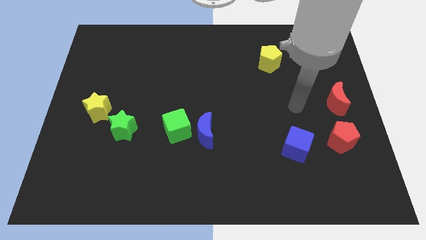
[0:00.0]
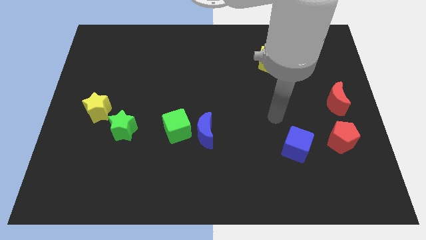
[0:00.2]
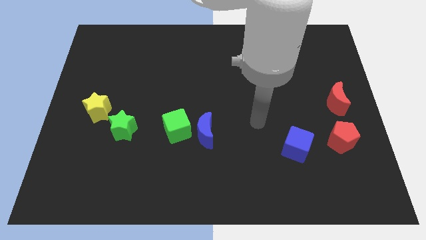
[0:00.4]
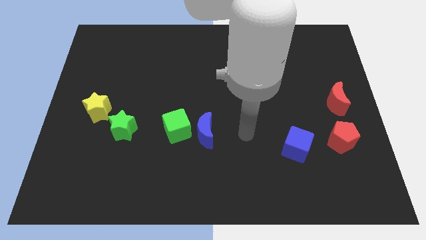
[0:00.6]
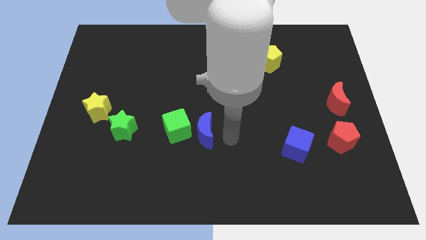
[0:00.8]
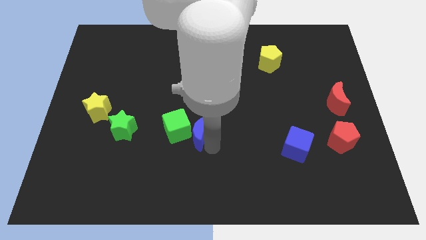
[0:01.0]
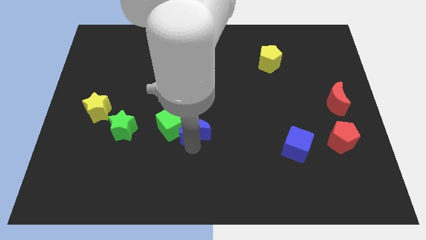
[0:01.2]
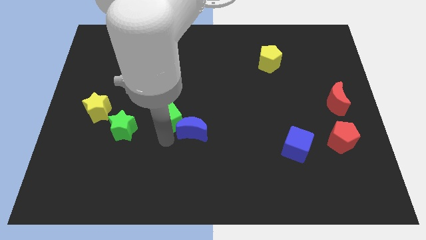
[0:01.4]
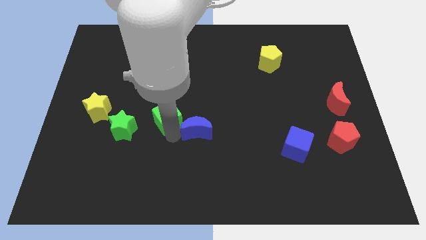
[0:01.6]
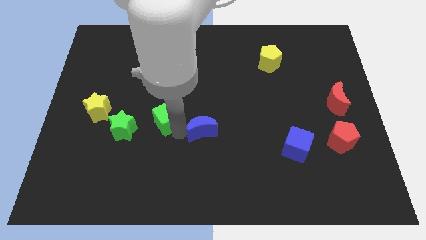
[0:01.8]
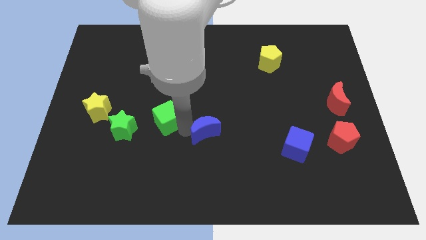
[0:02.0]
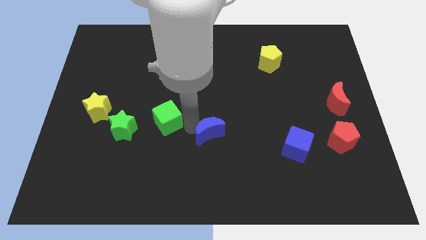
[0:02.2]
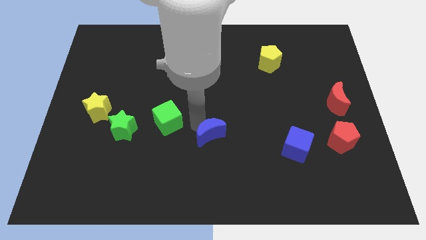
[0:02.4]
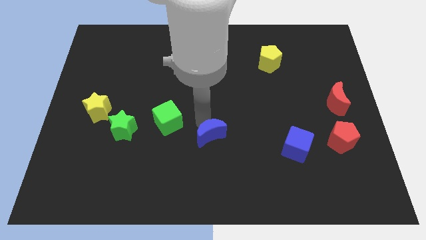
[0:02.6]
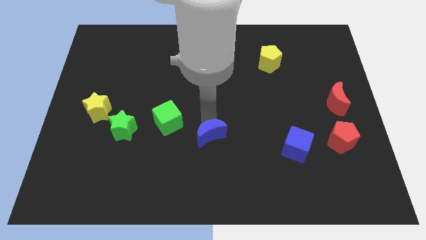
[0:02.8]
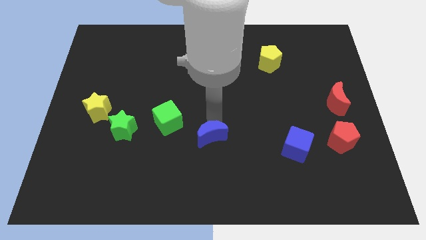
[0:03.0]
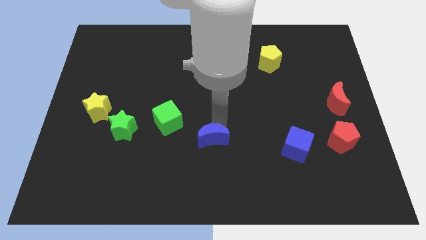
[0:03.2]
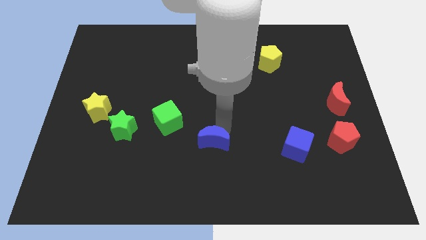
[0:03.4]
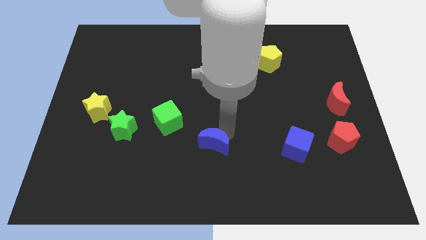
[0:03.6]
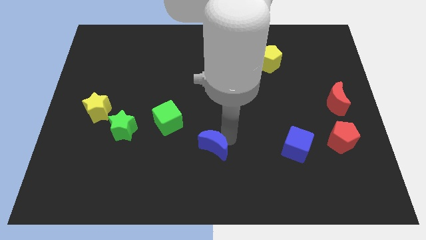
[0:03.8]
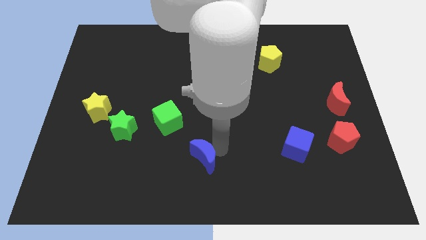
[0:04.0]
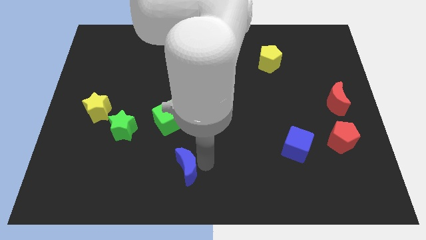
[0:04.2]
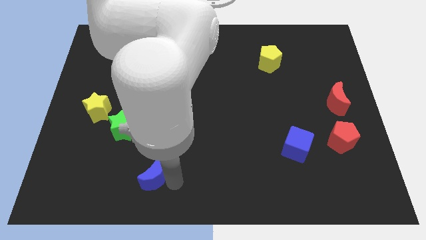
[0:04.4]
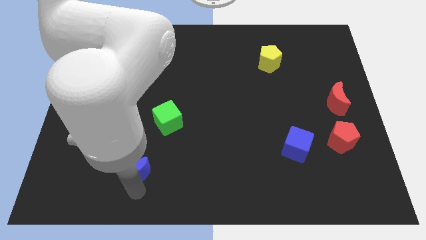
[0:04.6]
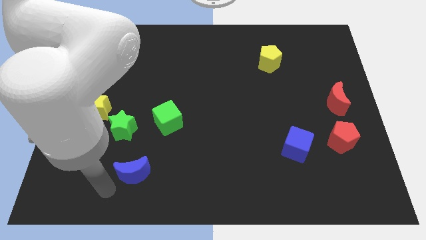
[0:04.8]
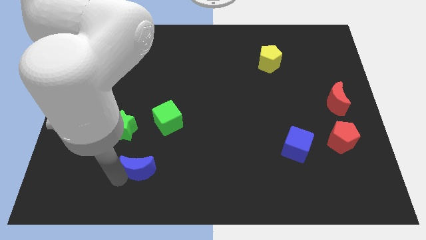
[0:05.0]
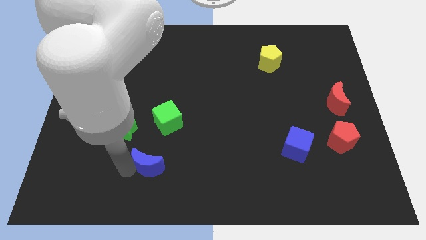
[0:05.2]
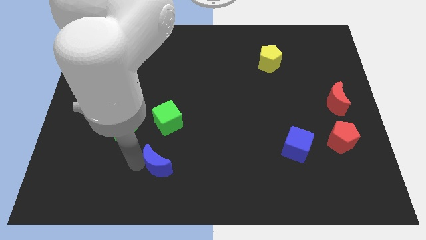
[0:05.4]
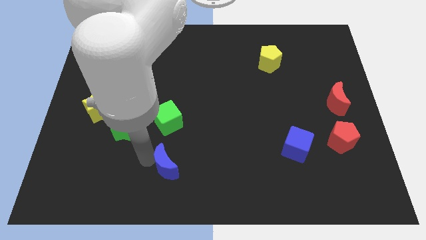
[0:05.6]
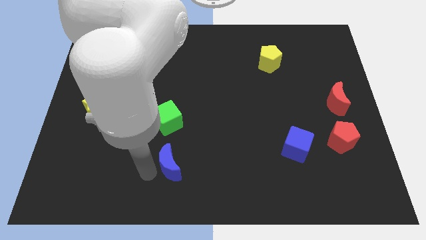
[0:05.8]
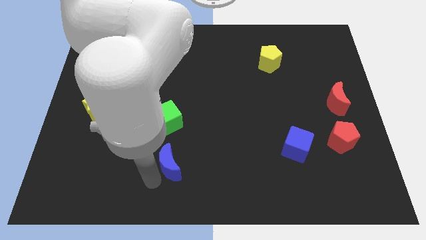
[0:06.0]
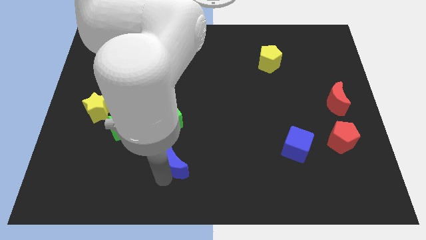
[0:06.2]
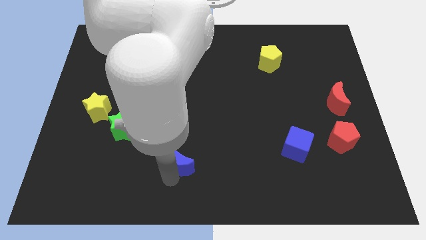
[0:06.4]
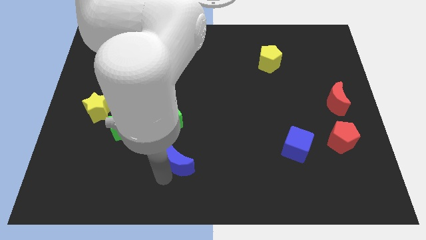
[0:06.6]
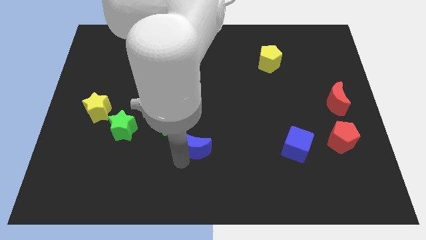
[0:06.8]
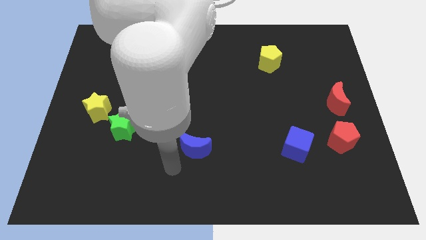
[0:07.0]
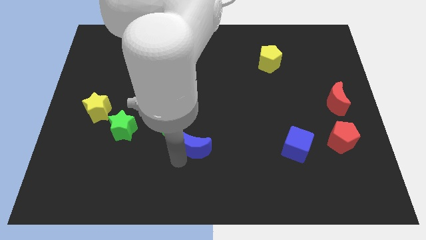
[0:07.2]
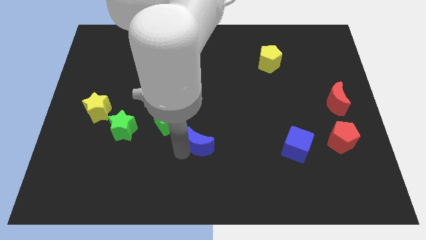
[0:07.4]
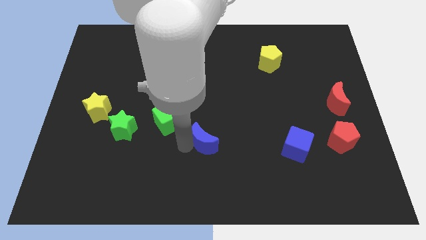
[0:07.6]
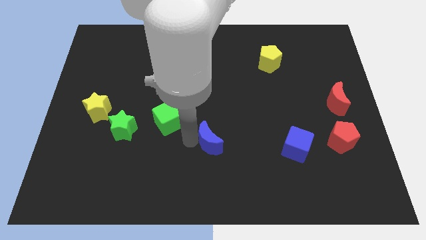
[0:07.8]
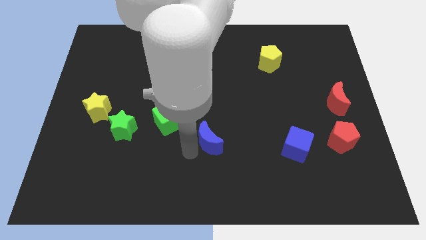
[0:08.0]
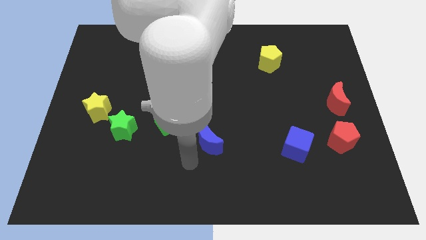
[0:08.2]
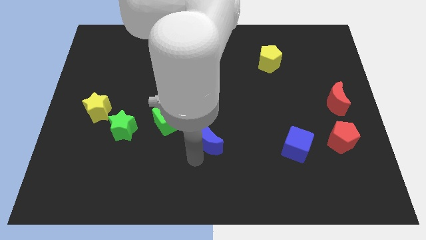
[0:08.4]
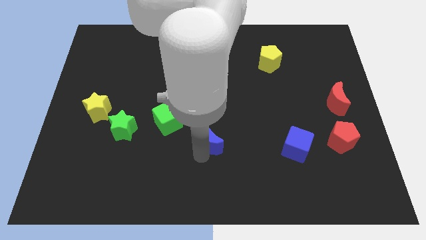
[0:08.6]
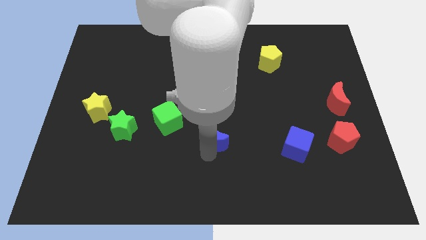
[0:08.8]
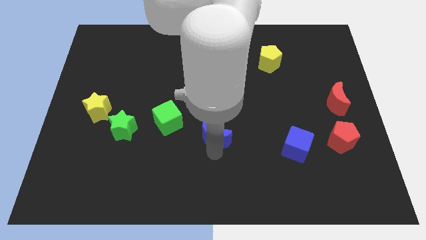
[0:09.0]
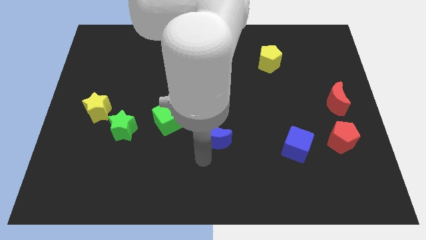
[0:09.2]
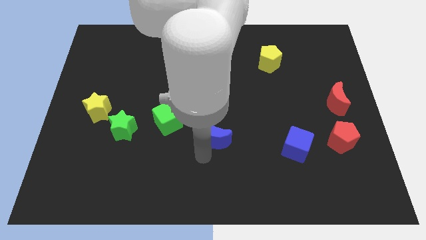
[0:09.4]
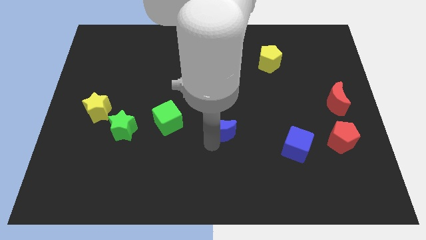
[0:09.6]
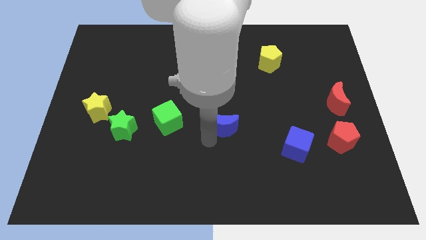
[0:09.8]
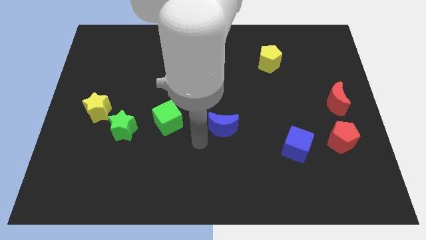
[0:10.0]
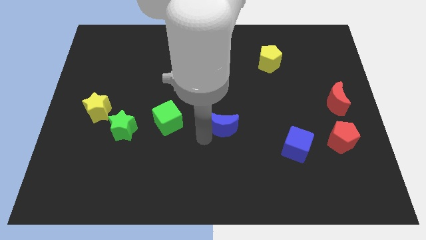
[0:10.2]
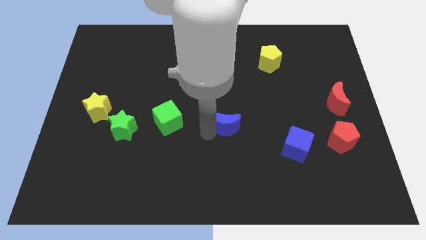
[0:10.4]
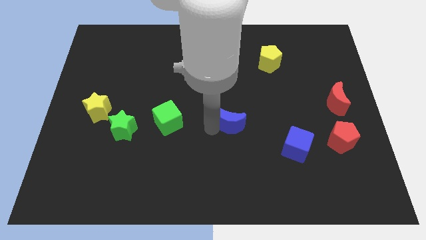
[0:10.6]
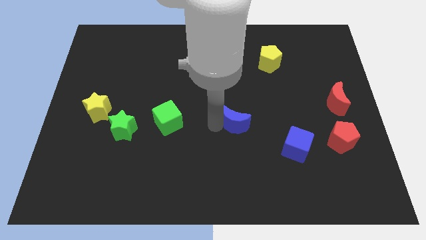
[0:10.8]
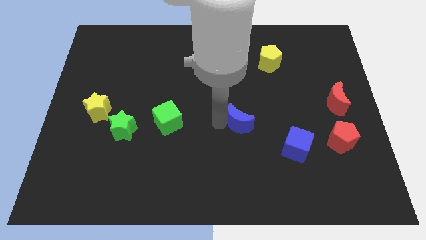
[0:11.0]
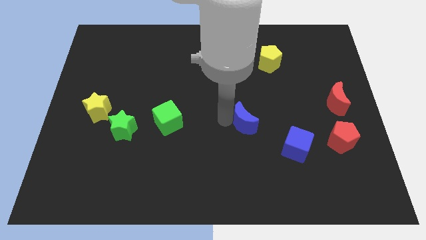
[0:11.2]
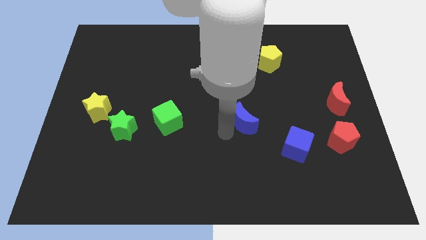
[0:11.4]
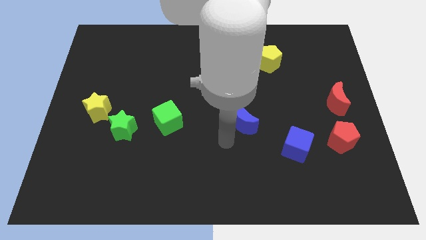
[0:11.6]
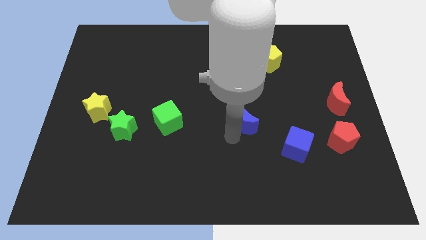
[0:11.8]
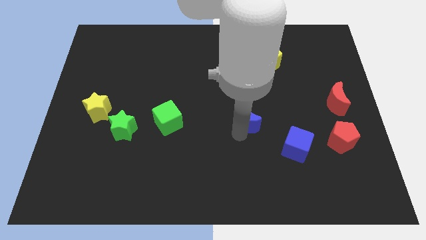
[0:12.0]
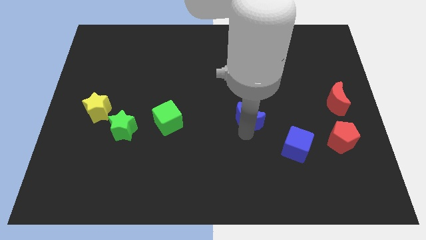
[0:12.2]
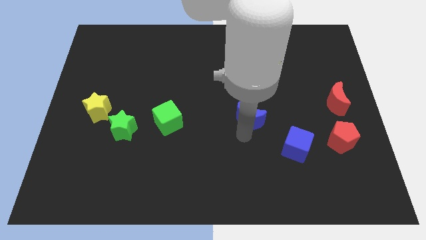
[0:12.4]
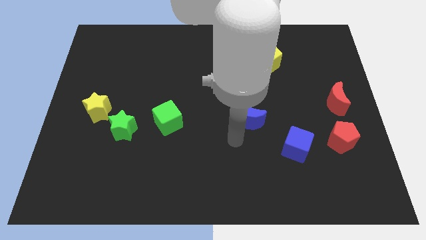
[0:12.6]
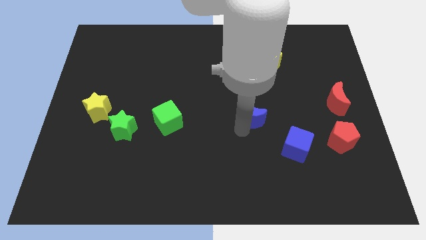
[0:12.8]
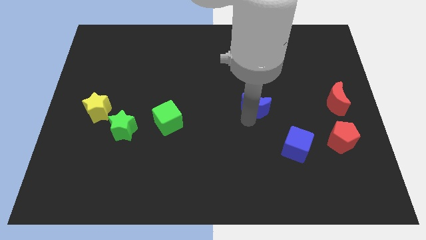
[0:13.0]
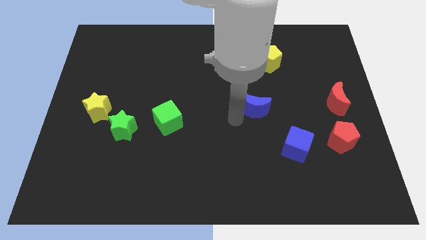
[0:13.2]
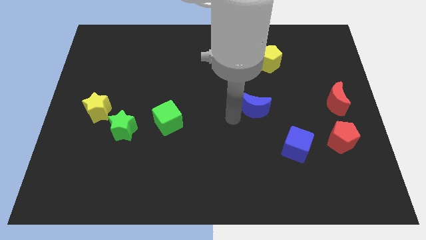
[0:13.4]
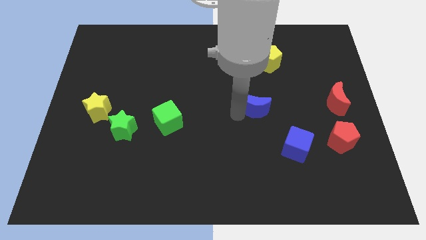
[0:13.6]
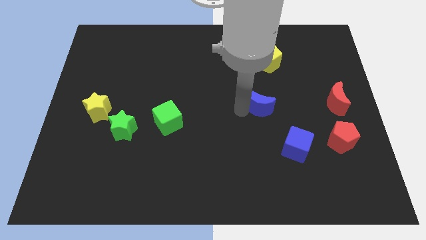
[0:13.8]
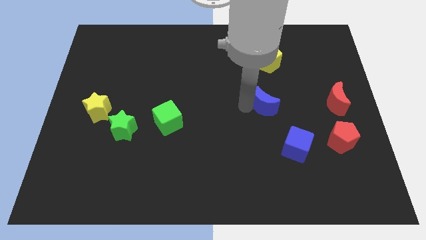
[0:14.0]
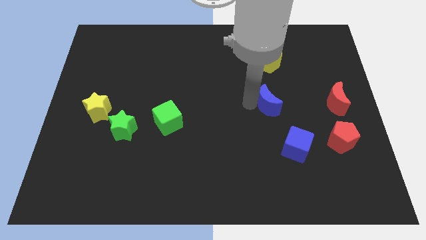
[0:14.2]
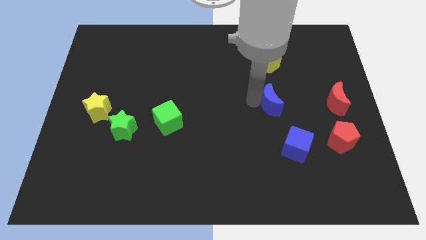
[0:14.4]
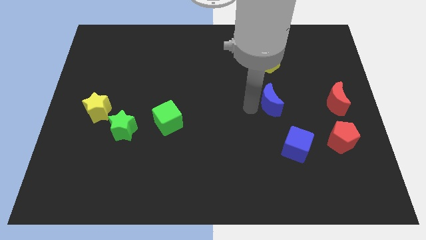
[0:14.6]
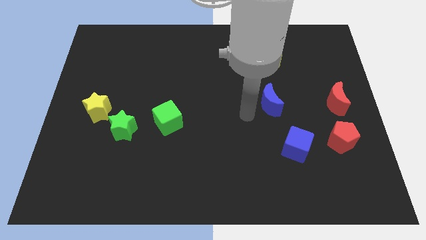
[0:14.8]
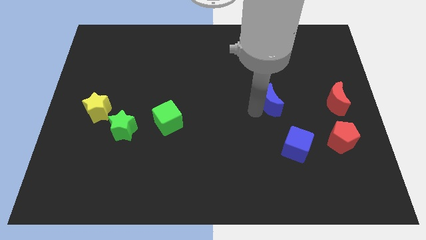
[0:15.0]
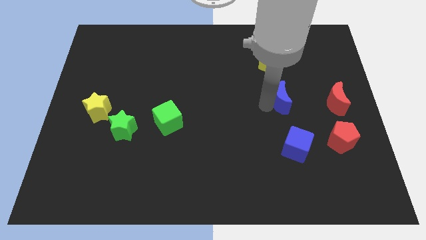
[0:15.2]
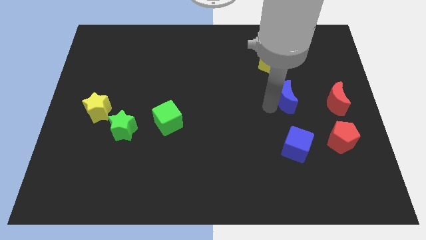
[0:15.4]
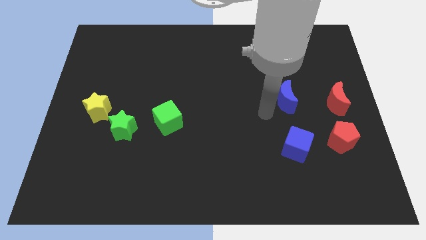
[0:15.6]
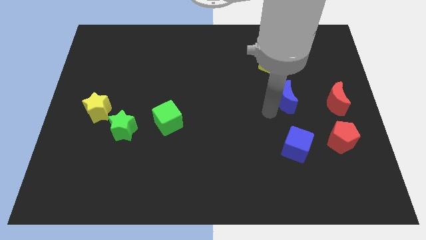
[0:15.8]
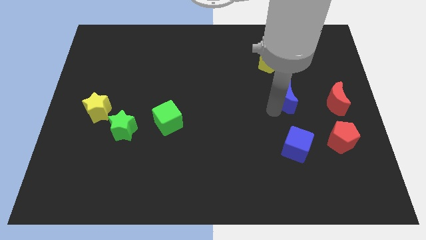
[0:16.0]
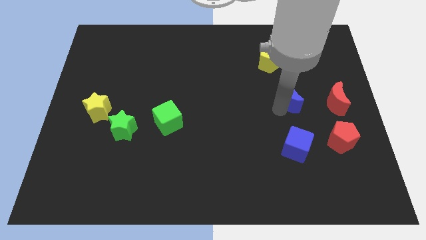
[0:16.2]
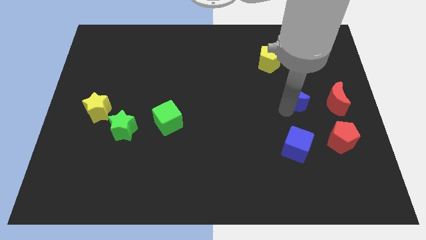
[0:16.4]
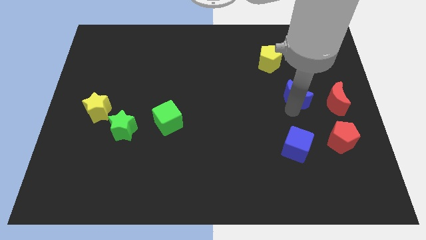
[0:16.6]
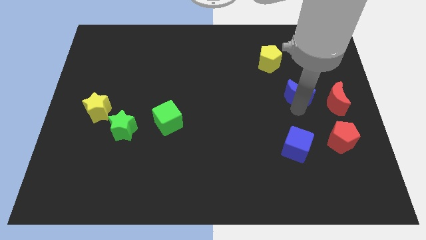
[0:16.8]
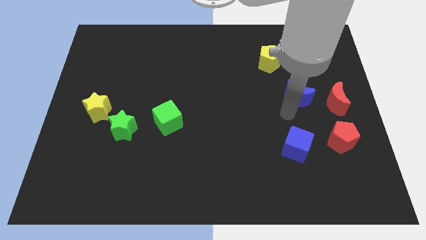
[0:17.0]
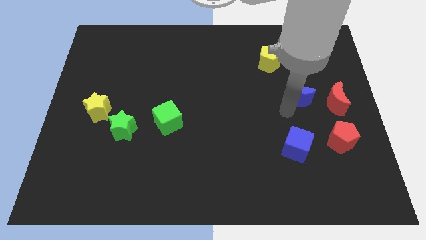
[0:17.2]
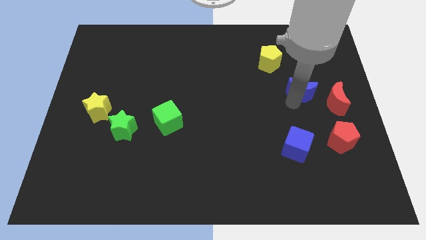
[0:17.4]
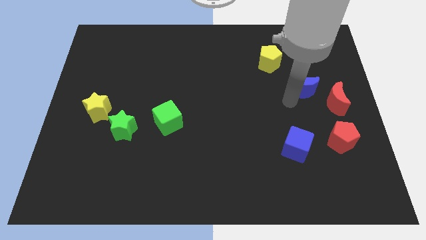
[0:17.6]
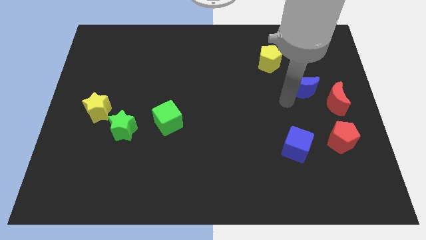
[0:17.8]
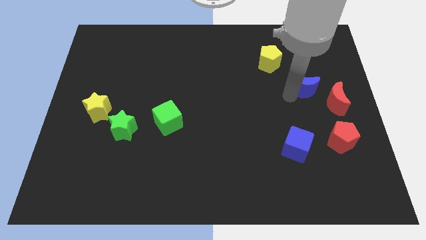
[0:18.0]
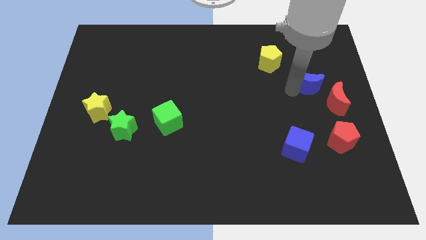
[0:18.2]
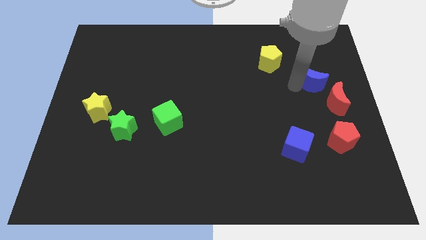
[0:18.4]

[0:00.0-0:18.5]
move the blue moon to the top of the red moon
